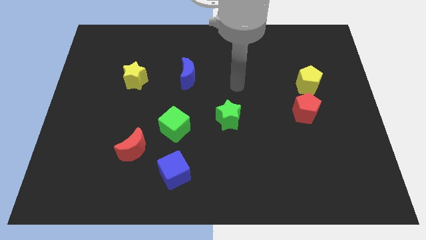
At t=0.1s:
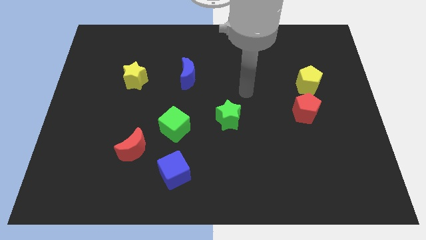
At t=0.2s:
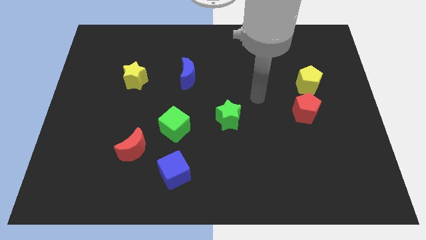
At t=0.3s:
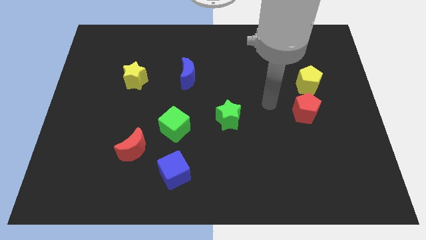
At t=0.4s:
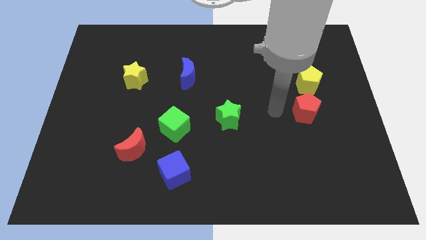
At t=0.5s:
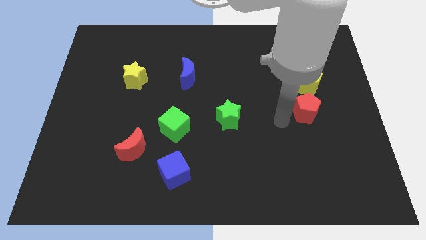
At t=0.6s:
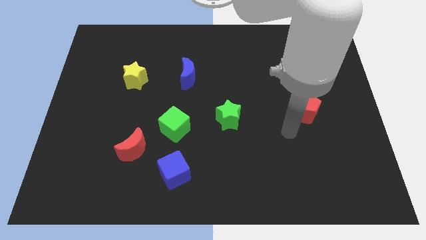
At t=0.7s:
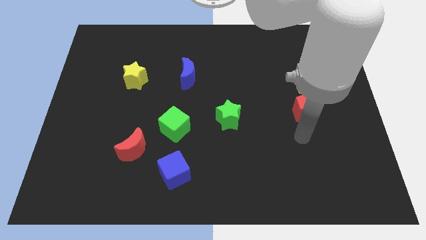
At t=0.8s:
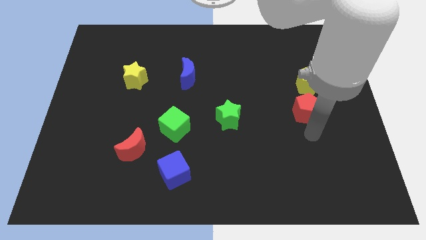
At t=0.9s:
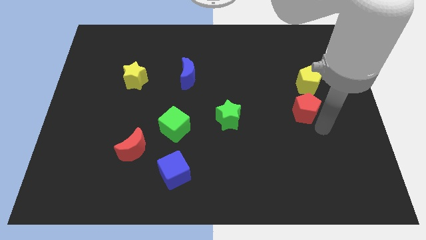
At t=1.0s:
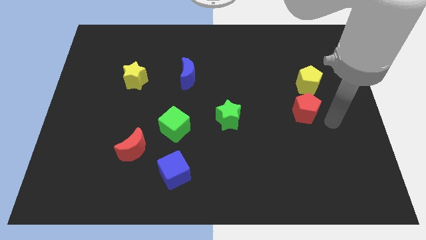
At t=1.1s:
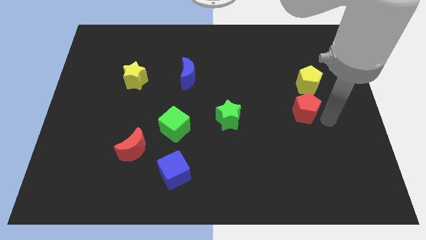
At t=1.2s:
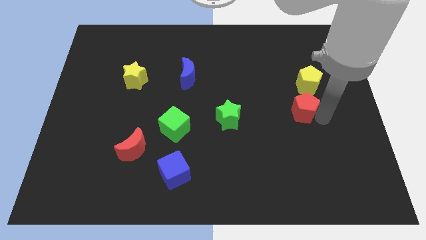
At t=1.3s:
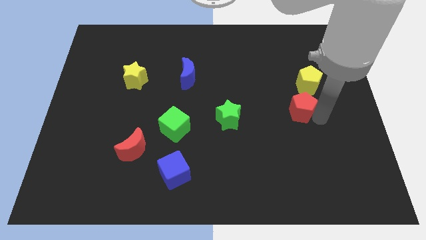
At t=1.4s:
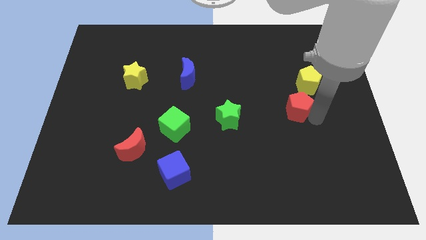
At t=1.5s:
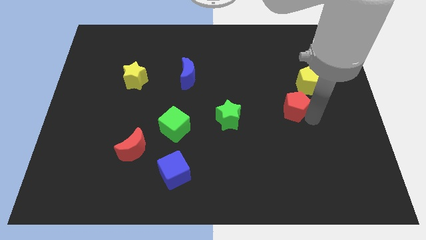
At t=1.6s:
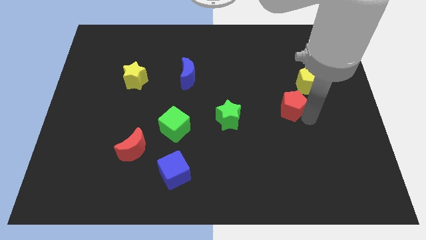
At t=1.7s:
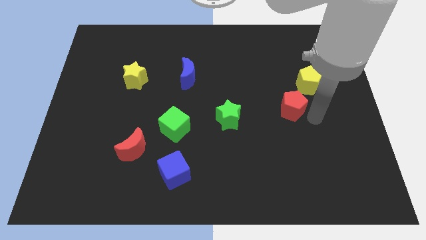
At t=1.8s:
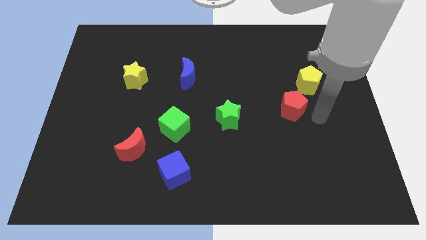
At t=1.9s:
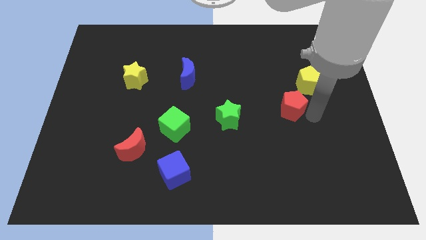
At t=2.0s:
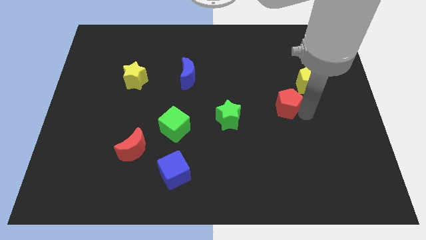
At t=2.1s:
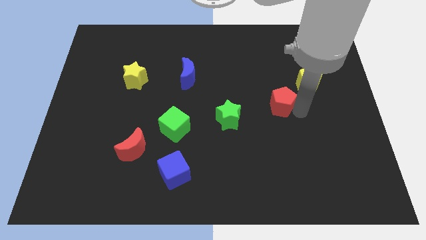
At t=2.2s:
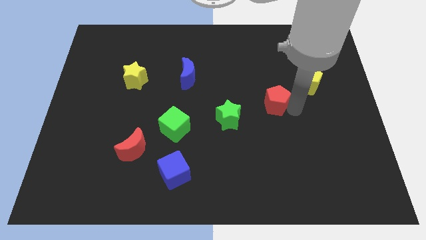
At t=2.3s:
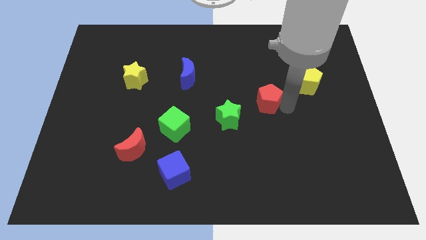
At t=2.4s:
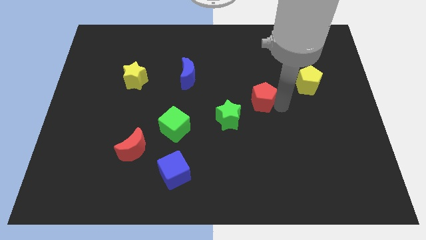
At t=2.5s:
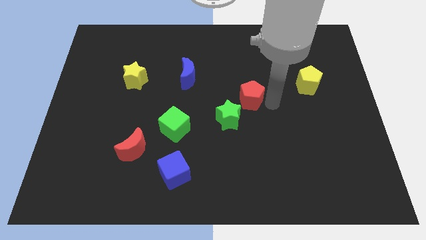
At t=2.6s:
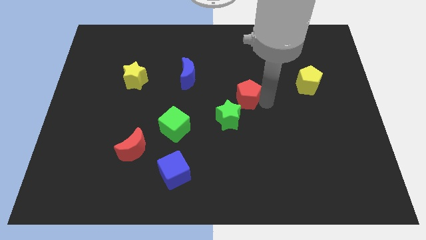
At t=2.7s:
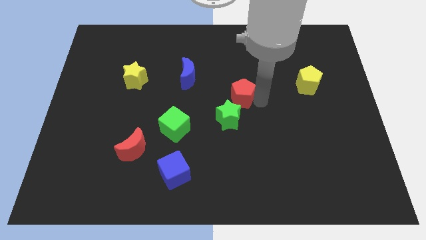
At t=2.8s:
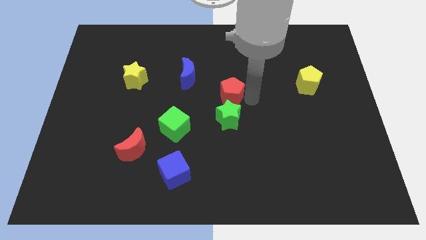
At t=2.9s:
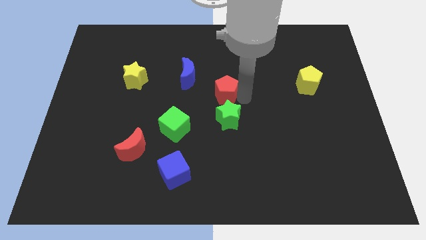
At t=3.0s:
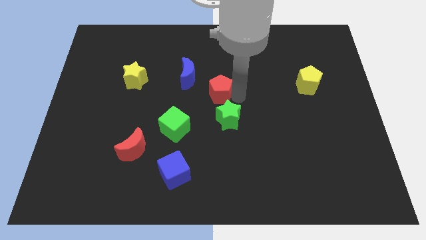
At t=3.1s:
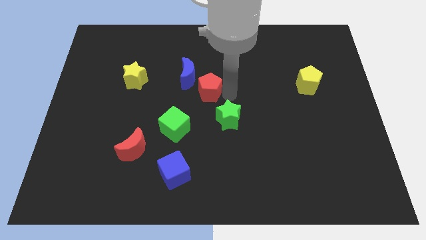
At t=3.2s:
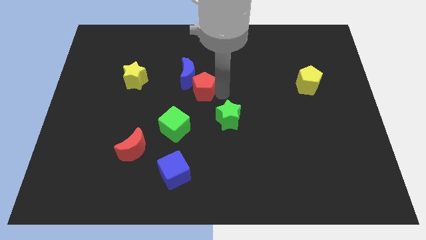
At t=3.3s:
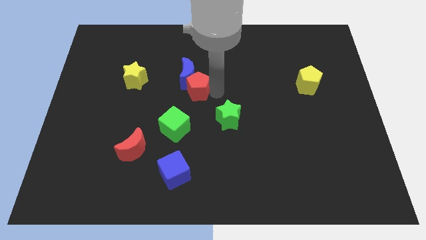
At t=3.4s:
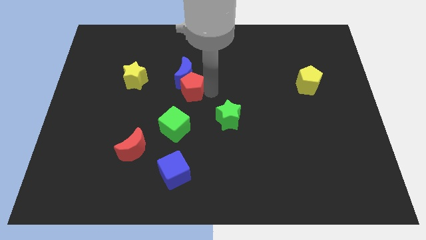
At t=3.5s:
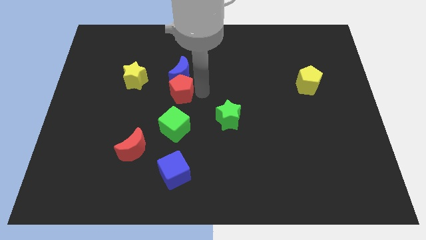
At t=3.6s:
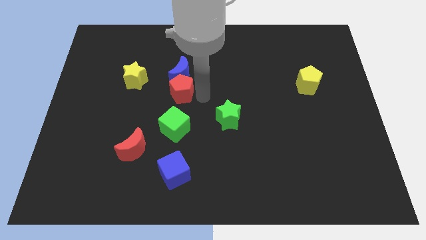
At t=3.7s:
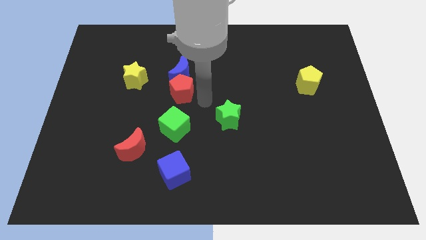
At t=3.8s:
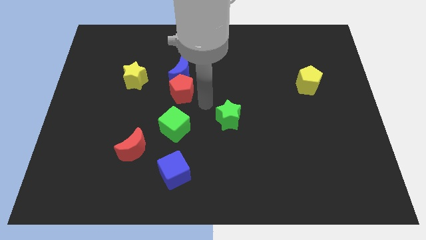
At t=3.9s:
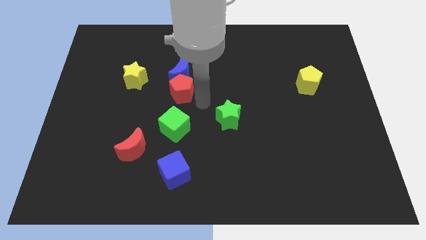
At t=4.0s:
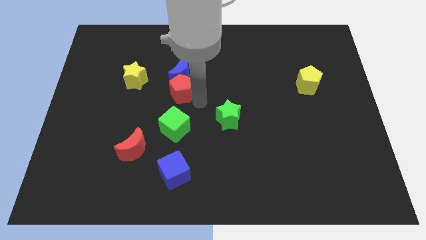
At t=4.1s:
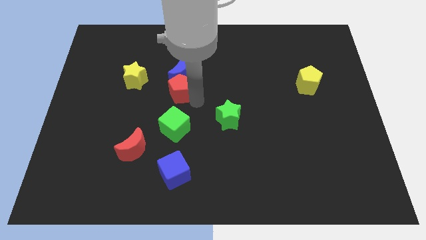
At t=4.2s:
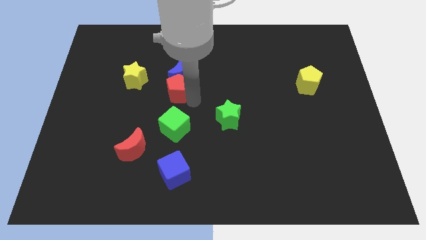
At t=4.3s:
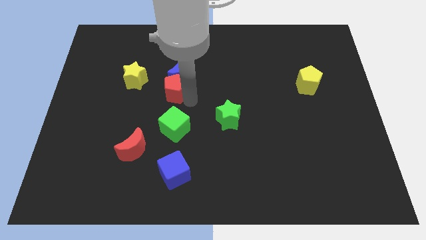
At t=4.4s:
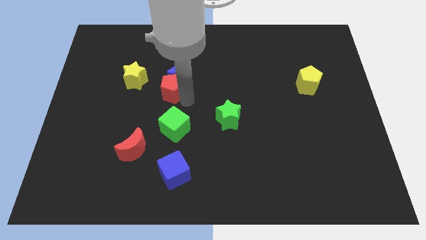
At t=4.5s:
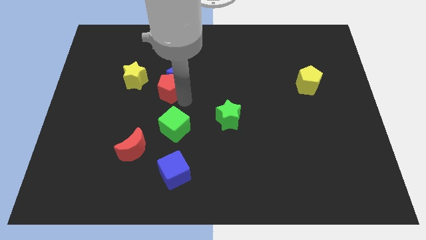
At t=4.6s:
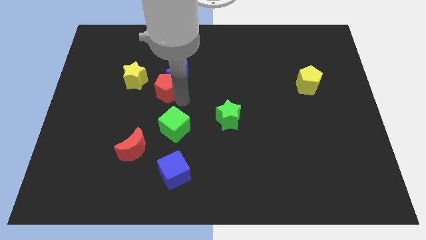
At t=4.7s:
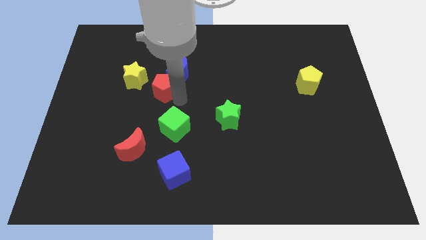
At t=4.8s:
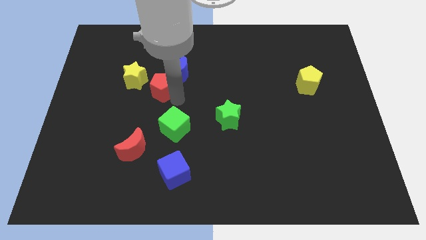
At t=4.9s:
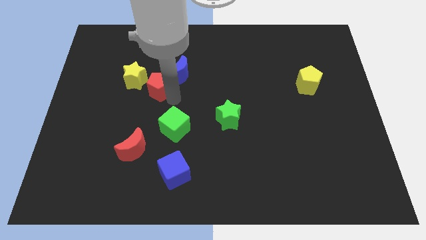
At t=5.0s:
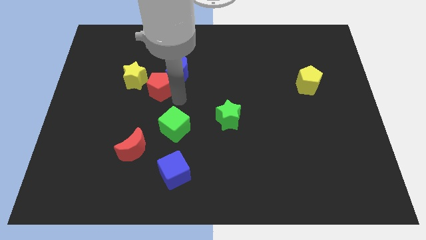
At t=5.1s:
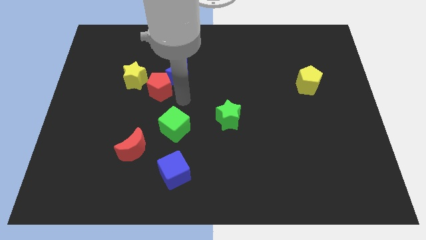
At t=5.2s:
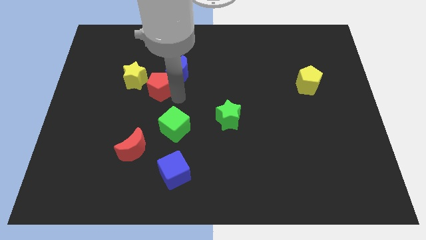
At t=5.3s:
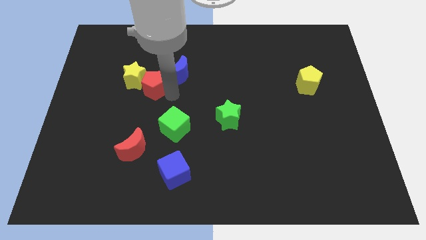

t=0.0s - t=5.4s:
push the red pentagon to the yellow star

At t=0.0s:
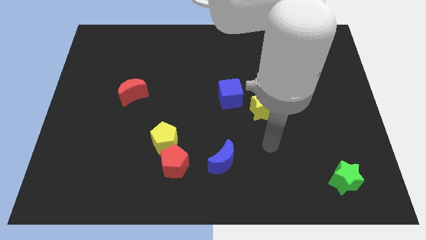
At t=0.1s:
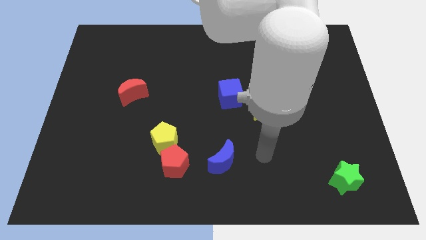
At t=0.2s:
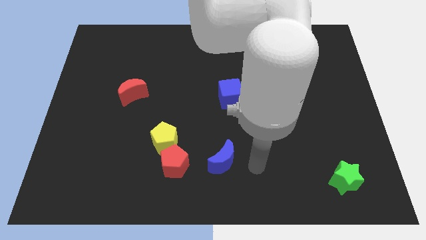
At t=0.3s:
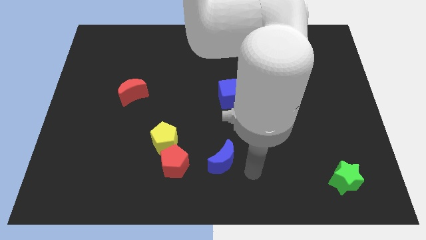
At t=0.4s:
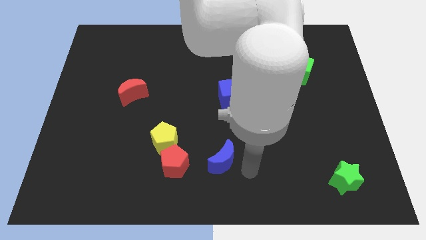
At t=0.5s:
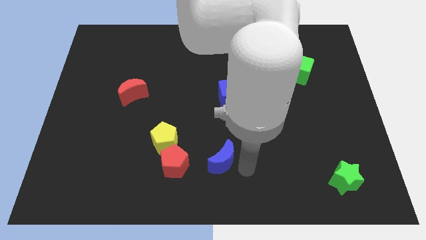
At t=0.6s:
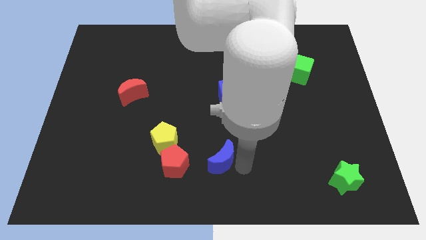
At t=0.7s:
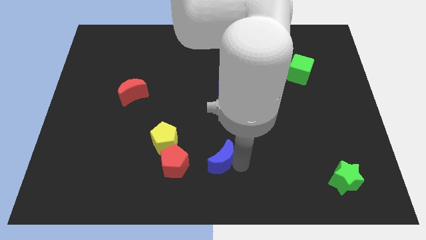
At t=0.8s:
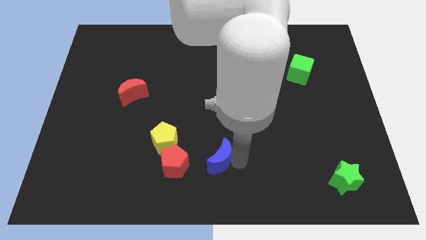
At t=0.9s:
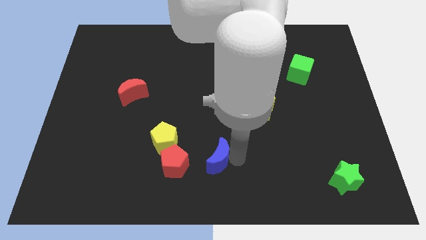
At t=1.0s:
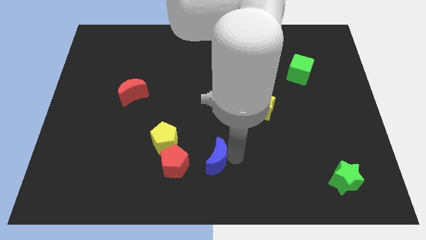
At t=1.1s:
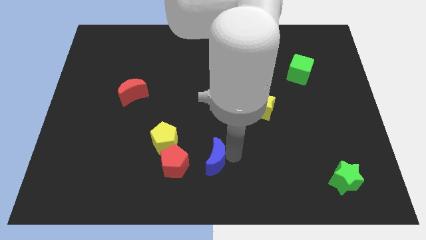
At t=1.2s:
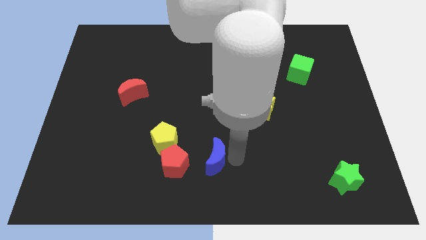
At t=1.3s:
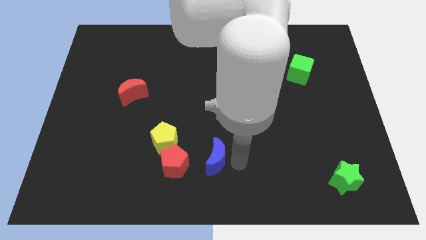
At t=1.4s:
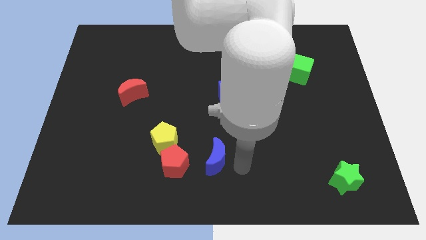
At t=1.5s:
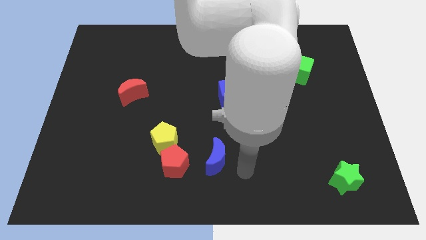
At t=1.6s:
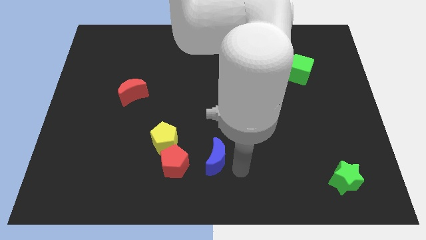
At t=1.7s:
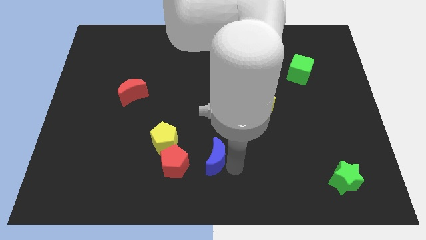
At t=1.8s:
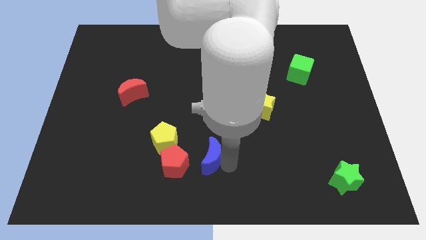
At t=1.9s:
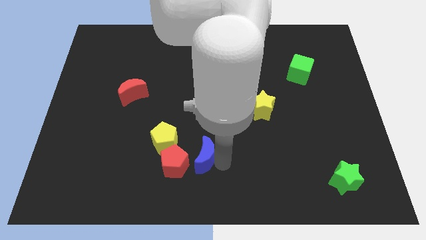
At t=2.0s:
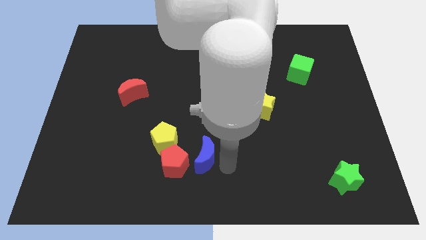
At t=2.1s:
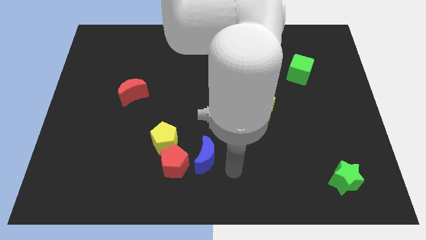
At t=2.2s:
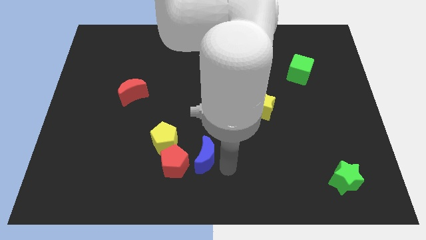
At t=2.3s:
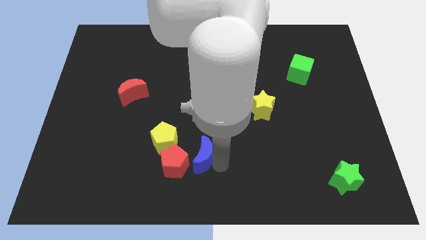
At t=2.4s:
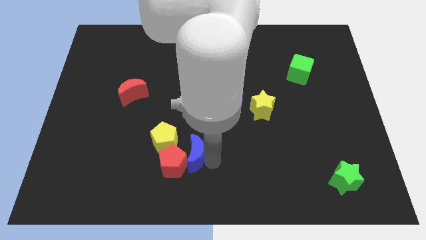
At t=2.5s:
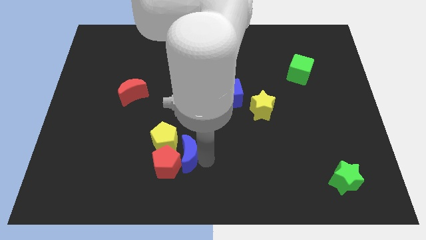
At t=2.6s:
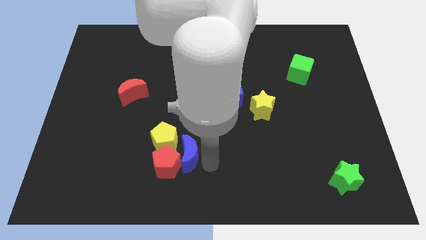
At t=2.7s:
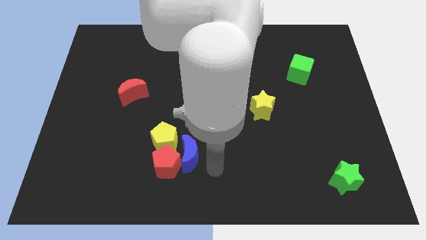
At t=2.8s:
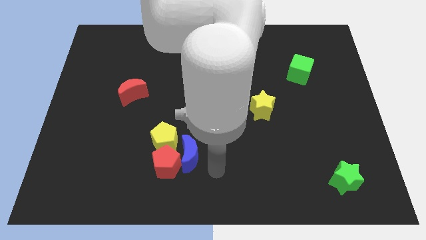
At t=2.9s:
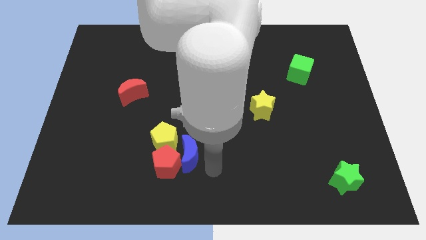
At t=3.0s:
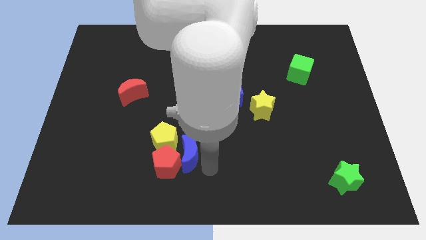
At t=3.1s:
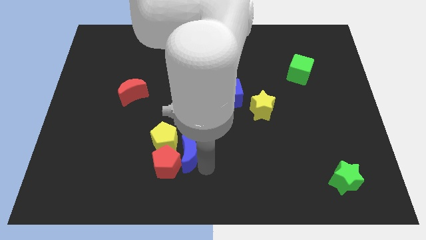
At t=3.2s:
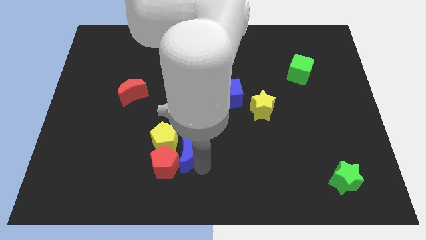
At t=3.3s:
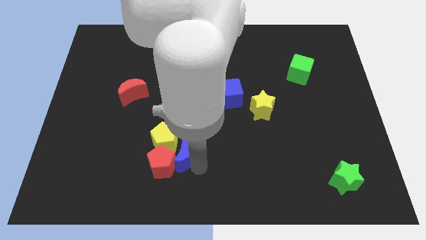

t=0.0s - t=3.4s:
slide the blue moon towards the yellow pentagon
